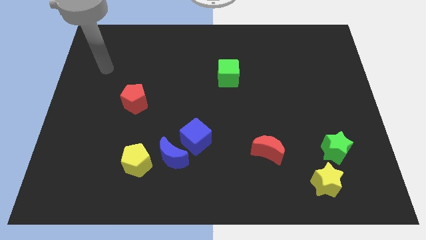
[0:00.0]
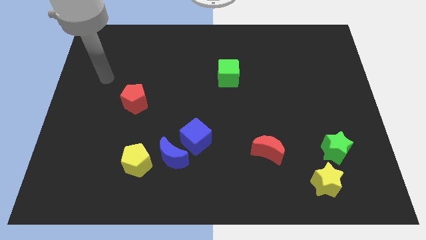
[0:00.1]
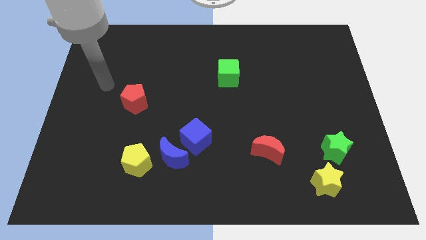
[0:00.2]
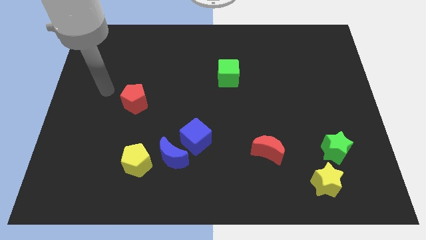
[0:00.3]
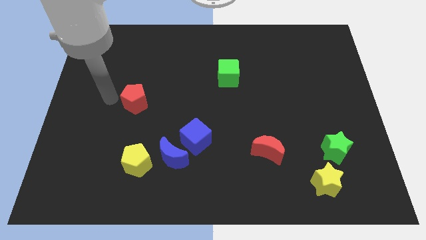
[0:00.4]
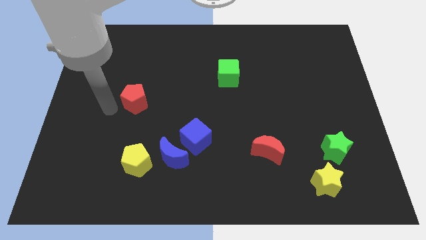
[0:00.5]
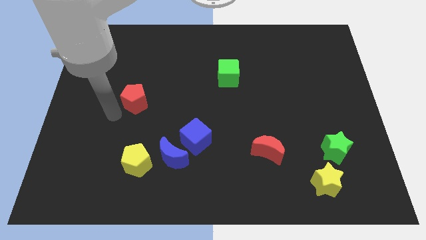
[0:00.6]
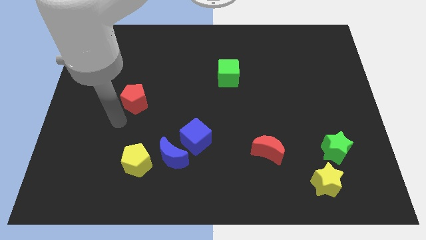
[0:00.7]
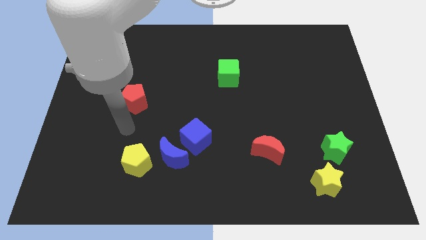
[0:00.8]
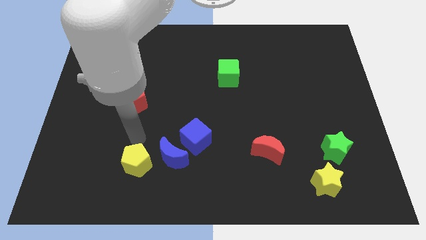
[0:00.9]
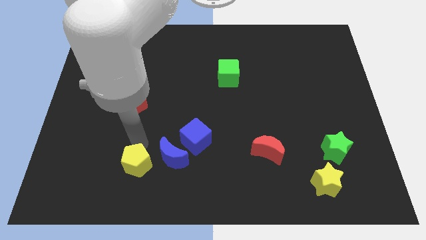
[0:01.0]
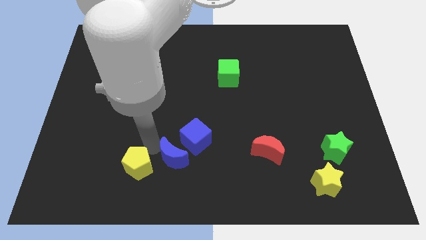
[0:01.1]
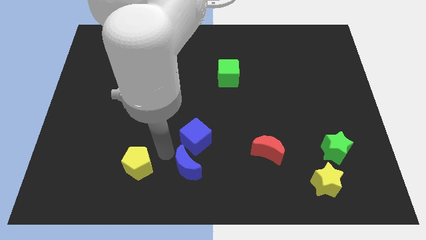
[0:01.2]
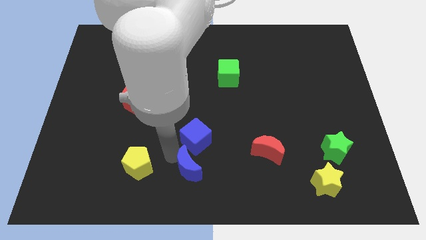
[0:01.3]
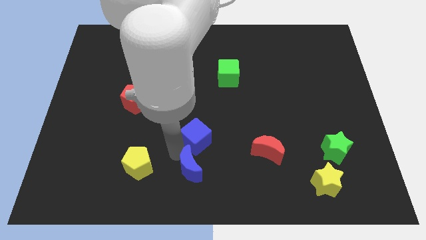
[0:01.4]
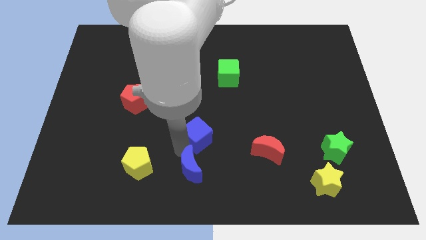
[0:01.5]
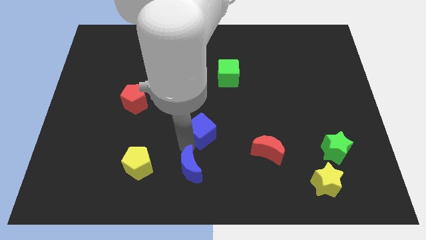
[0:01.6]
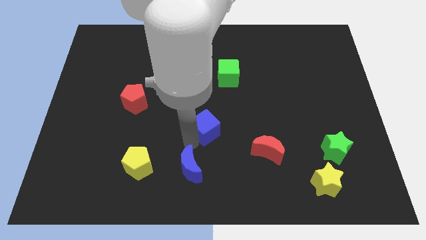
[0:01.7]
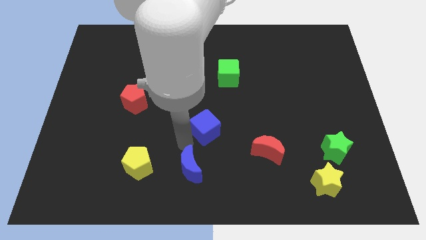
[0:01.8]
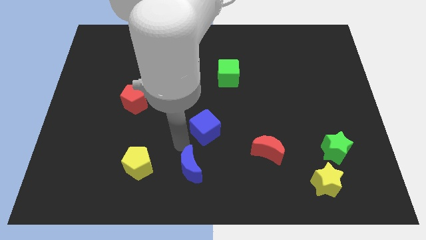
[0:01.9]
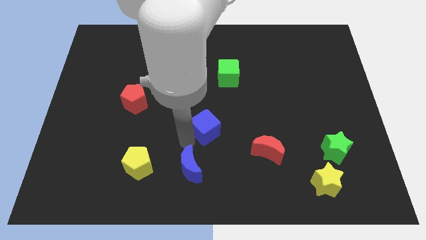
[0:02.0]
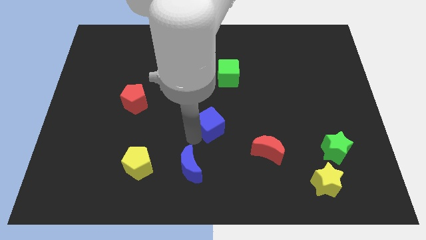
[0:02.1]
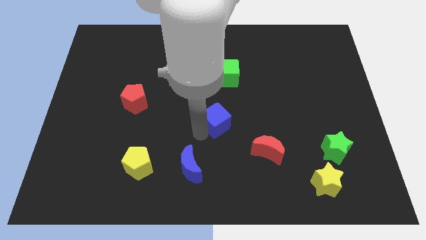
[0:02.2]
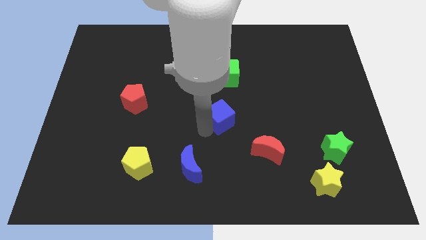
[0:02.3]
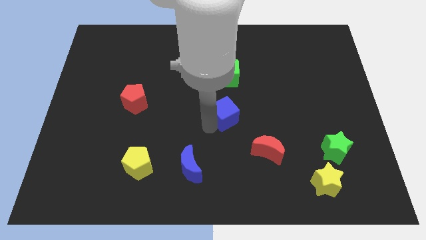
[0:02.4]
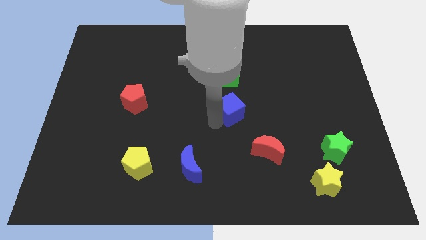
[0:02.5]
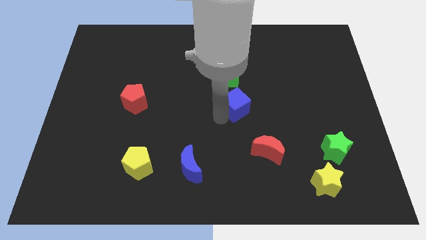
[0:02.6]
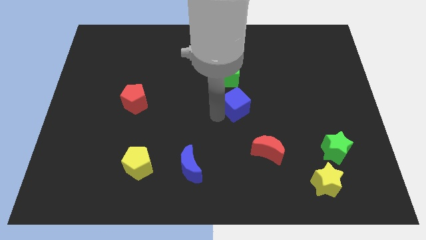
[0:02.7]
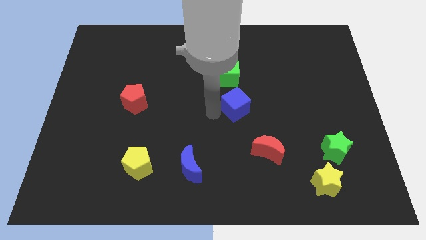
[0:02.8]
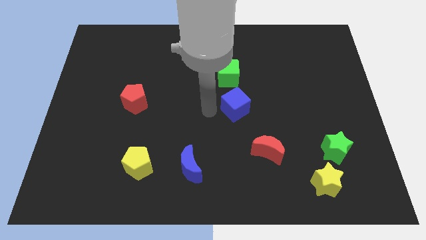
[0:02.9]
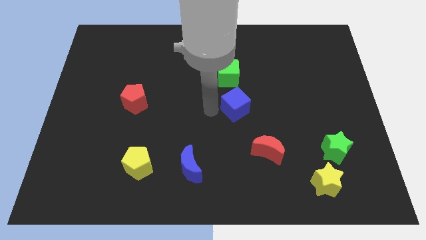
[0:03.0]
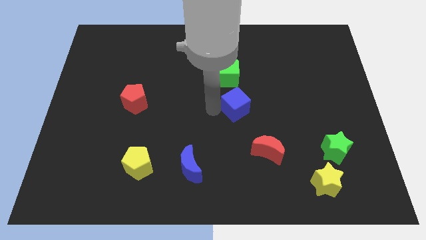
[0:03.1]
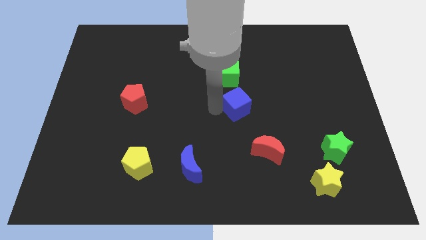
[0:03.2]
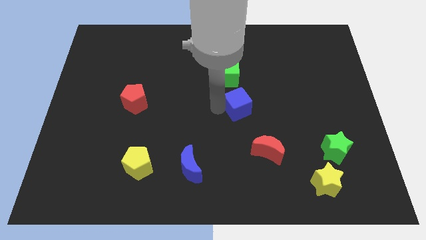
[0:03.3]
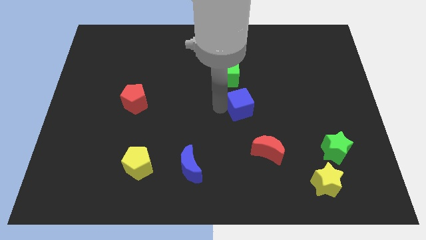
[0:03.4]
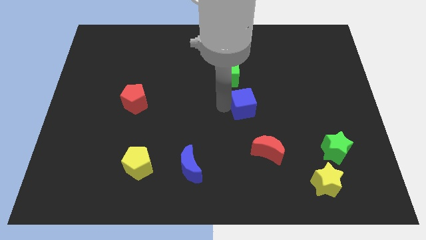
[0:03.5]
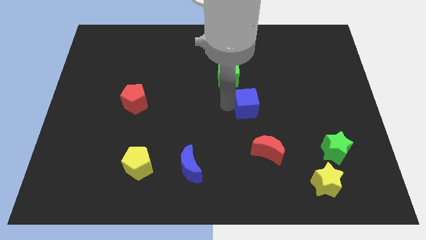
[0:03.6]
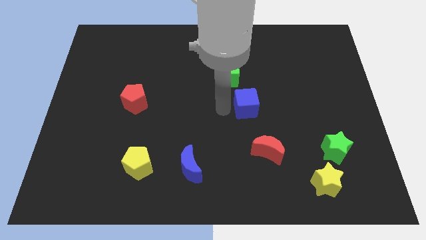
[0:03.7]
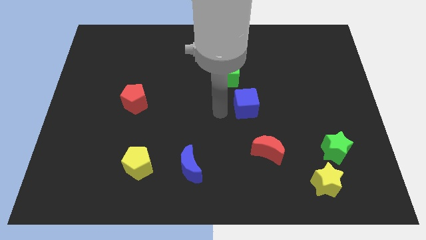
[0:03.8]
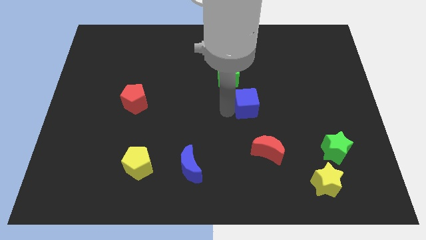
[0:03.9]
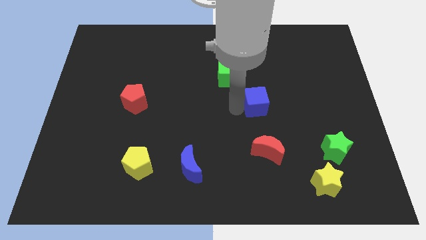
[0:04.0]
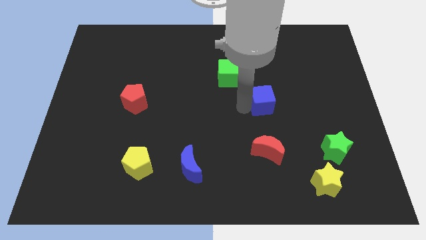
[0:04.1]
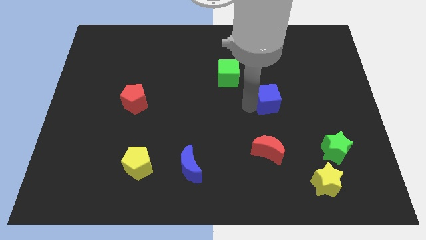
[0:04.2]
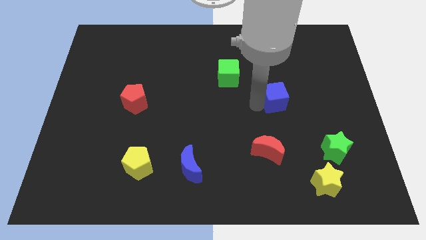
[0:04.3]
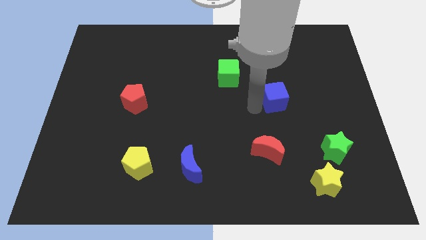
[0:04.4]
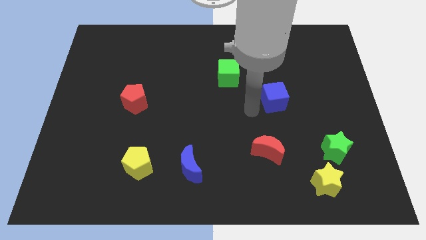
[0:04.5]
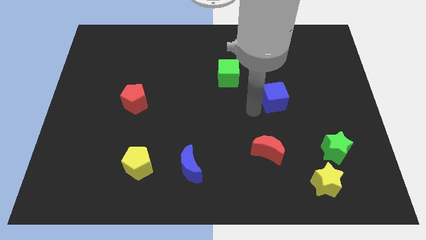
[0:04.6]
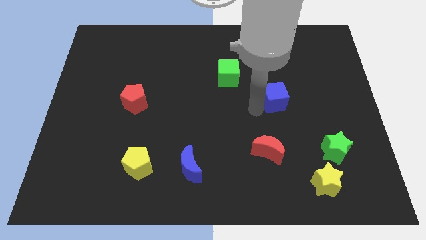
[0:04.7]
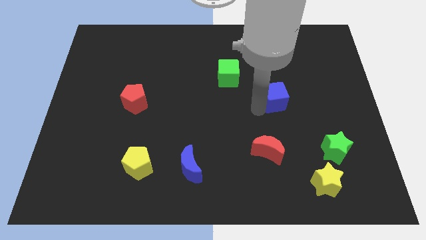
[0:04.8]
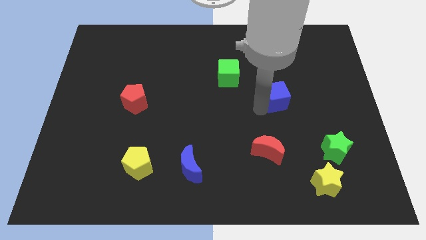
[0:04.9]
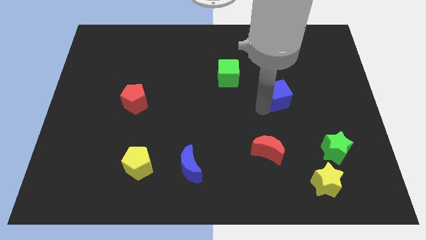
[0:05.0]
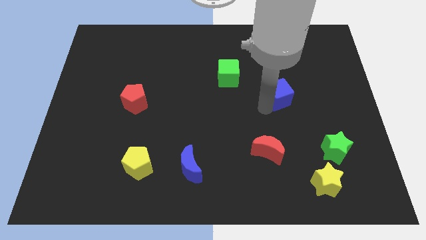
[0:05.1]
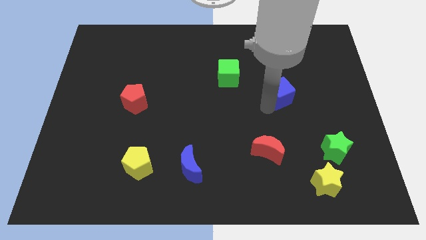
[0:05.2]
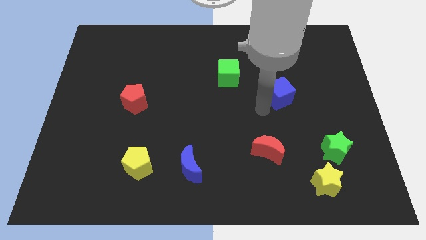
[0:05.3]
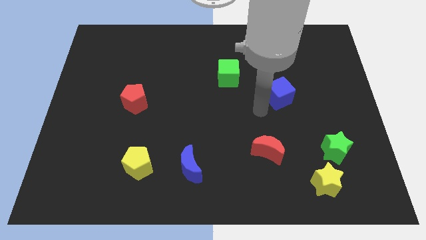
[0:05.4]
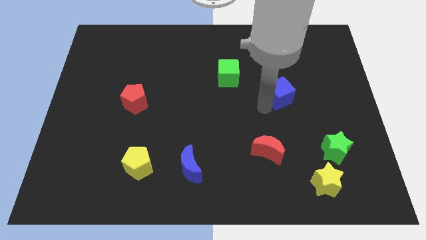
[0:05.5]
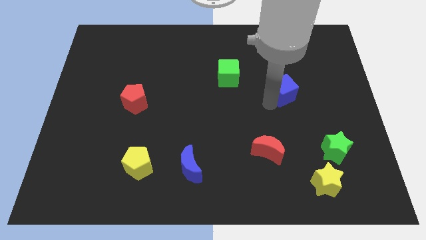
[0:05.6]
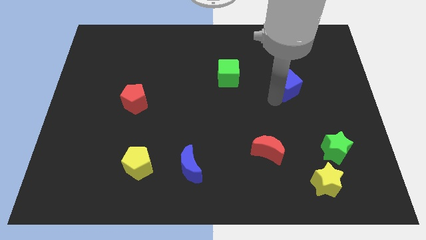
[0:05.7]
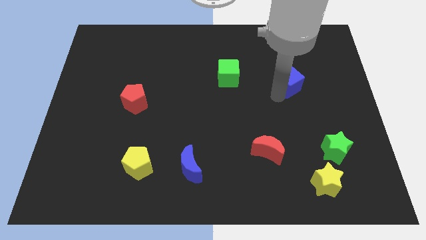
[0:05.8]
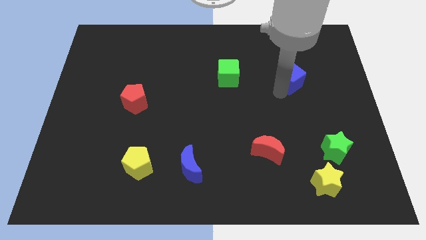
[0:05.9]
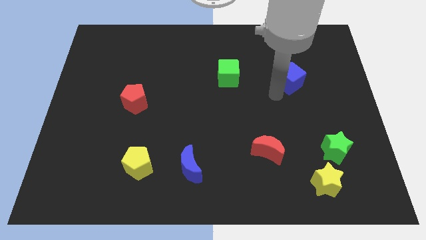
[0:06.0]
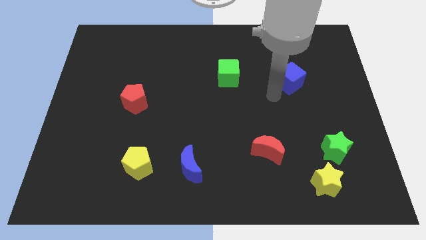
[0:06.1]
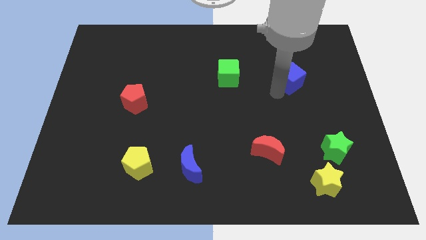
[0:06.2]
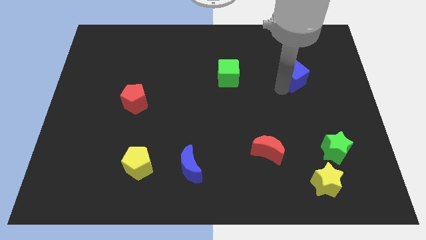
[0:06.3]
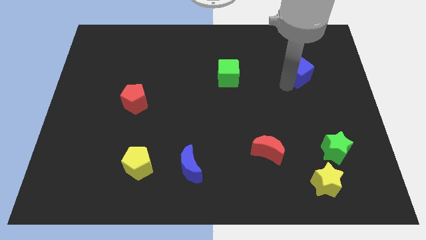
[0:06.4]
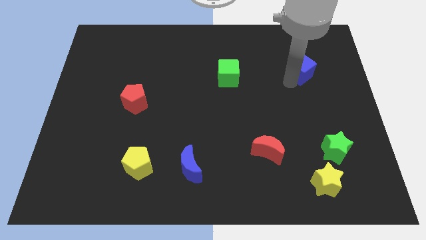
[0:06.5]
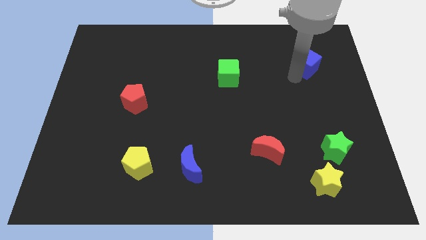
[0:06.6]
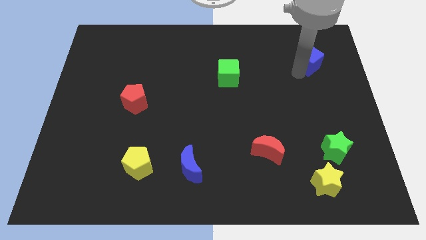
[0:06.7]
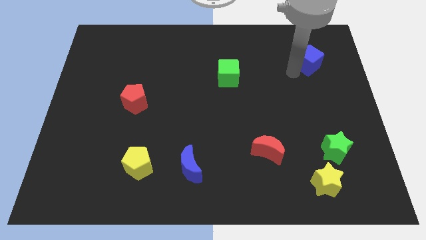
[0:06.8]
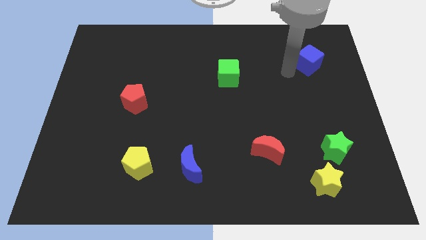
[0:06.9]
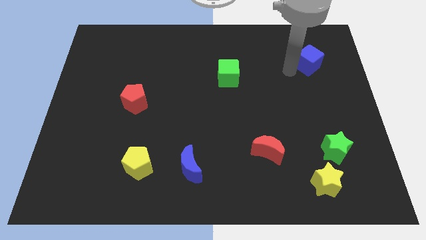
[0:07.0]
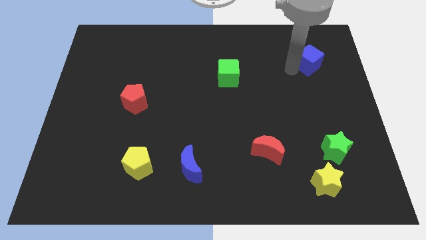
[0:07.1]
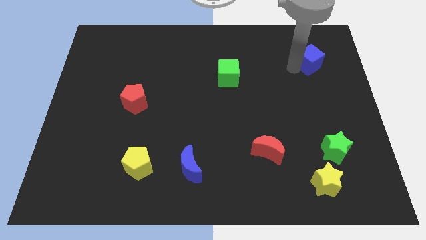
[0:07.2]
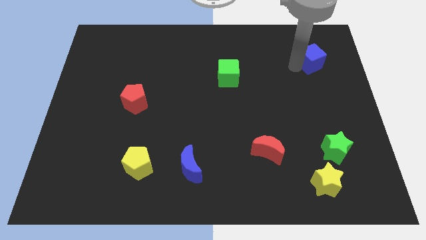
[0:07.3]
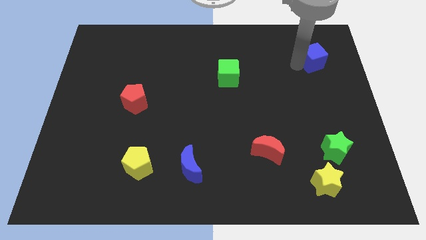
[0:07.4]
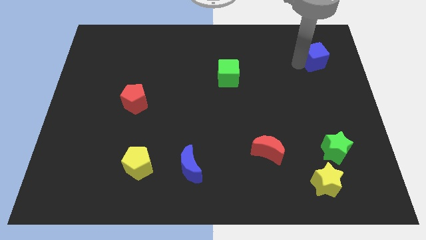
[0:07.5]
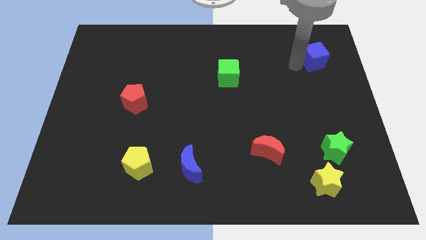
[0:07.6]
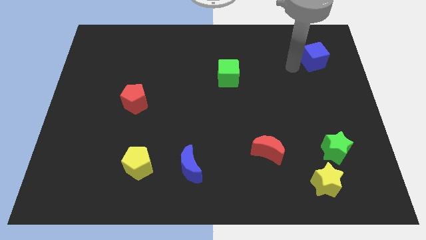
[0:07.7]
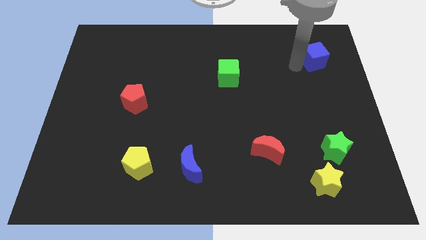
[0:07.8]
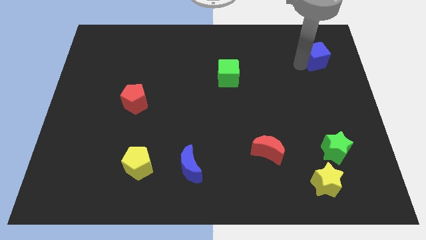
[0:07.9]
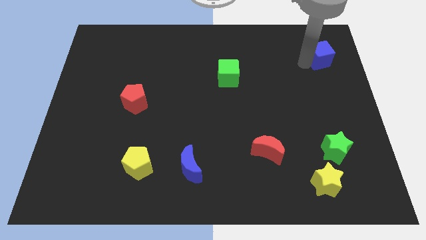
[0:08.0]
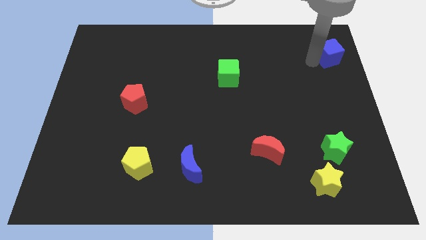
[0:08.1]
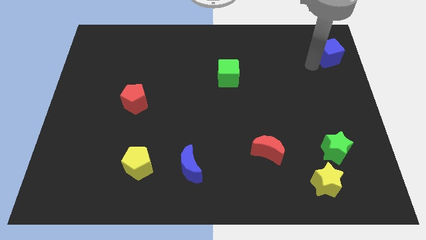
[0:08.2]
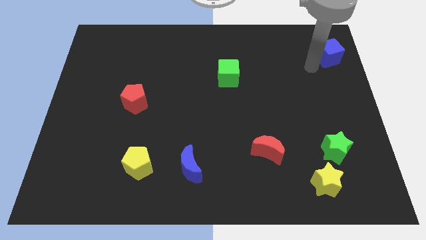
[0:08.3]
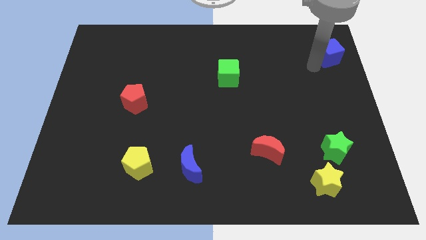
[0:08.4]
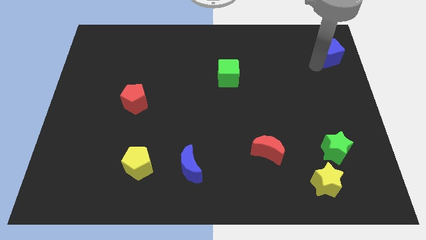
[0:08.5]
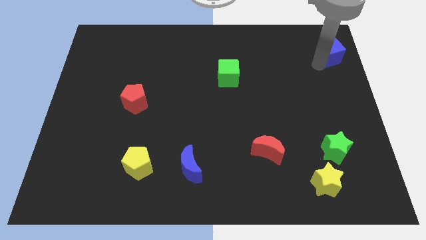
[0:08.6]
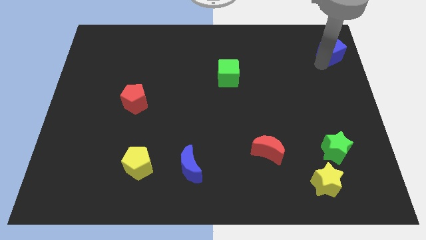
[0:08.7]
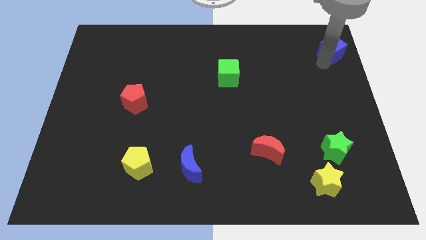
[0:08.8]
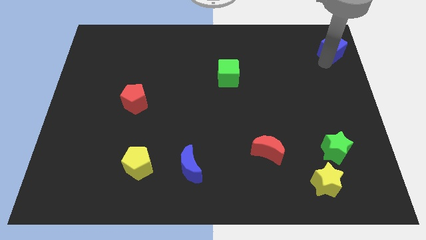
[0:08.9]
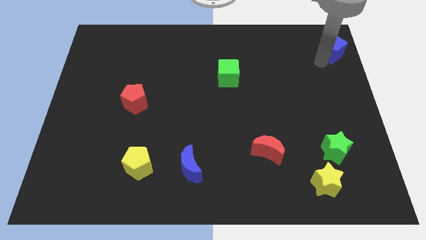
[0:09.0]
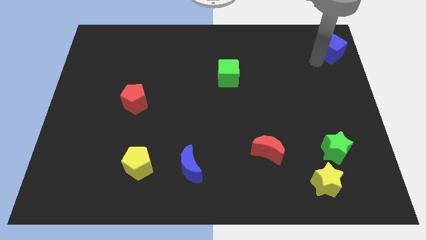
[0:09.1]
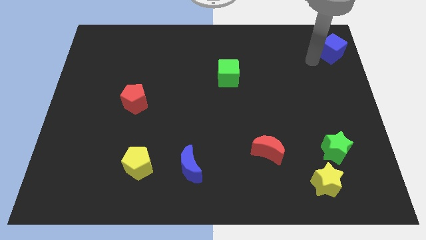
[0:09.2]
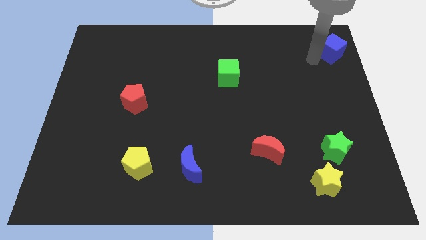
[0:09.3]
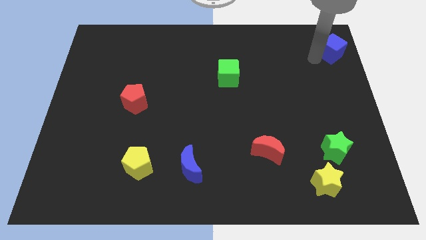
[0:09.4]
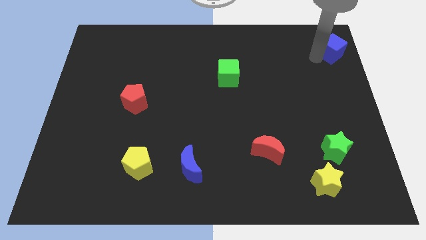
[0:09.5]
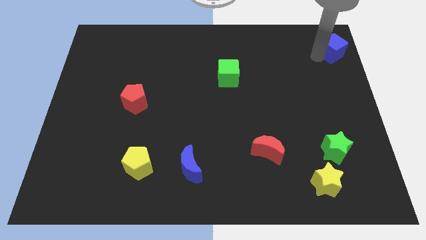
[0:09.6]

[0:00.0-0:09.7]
push the blue cube to the top right corner
